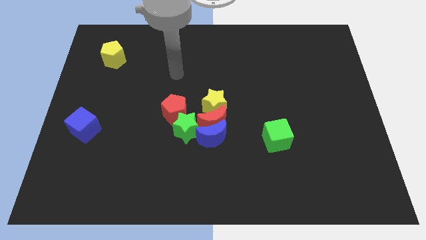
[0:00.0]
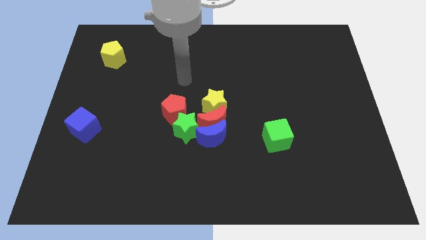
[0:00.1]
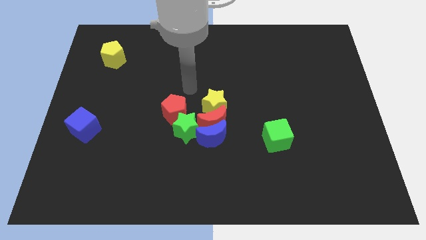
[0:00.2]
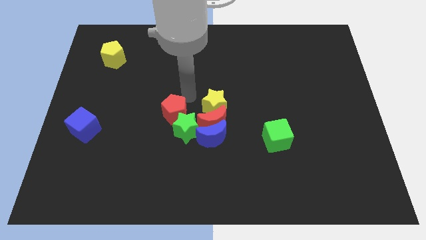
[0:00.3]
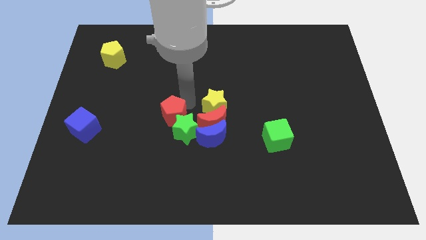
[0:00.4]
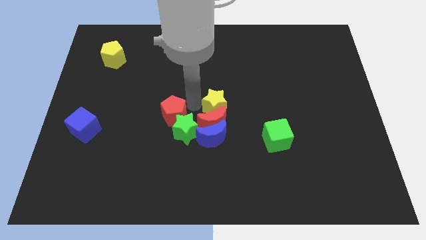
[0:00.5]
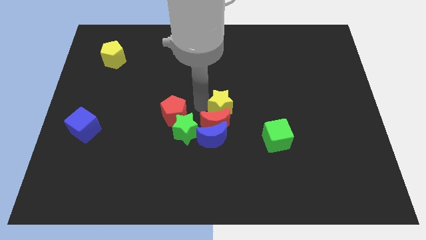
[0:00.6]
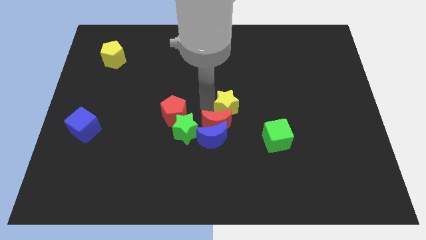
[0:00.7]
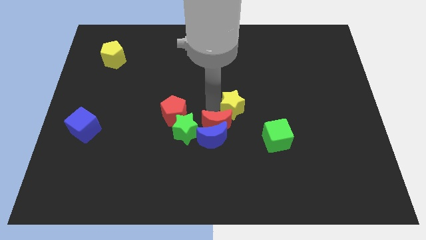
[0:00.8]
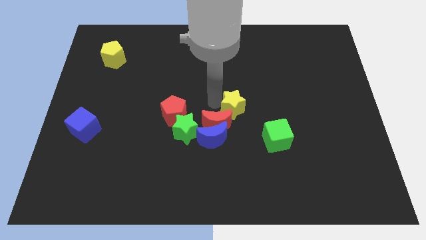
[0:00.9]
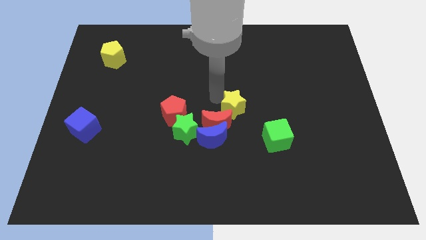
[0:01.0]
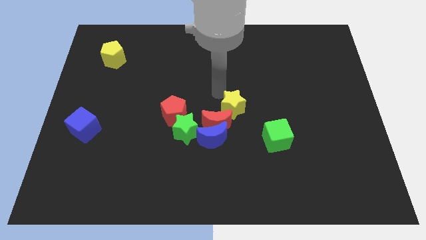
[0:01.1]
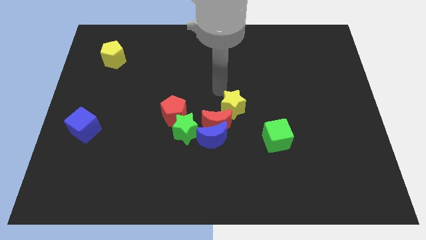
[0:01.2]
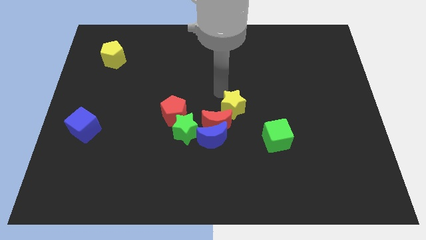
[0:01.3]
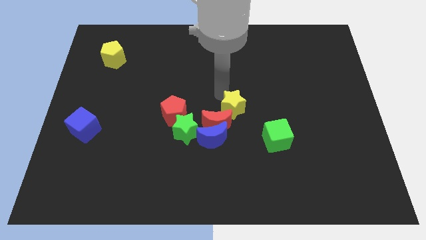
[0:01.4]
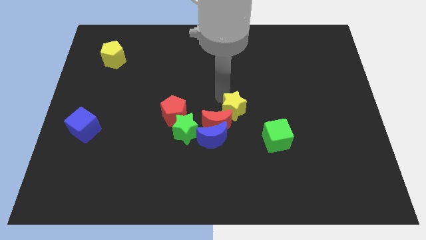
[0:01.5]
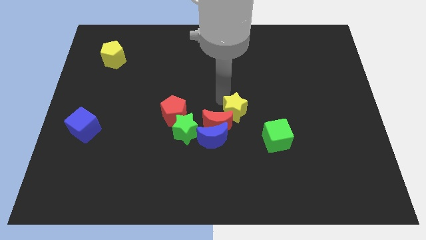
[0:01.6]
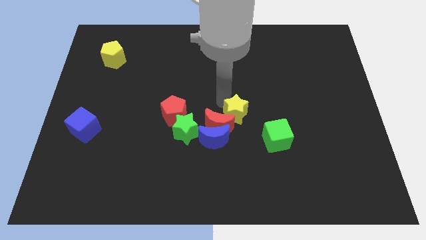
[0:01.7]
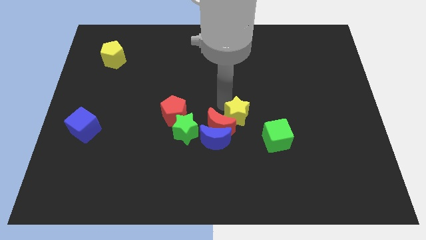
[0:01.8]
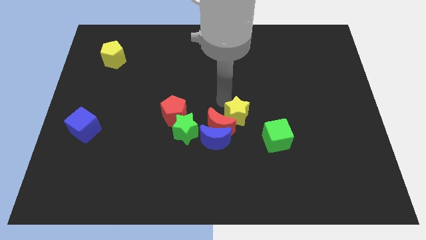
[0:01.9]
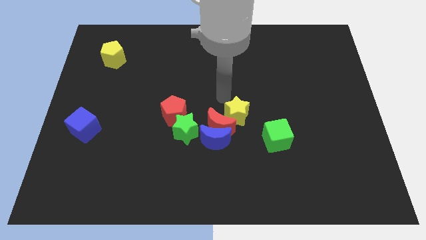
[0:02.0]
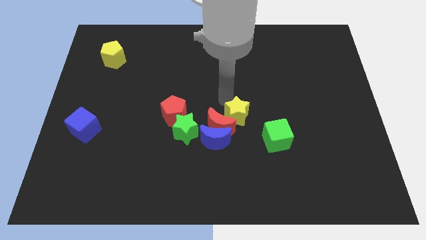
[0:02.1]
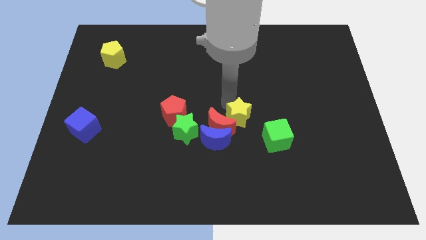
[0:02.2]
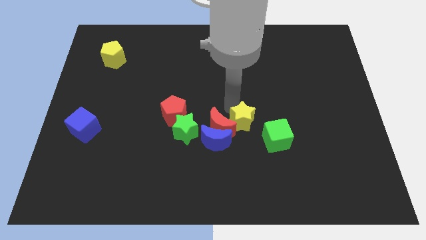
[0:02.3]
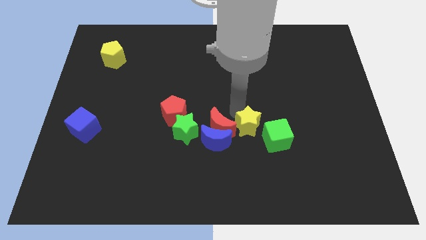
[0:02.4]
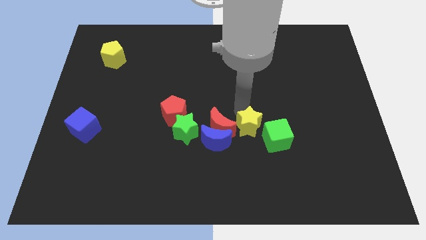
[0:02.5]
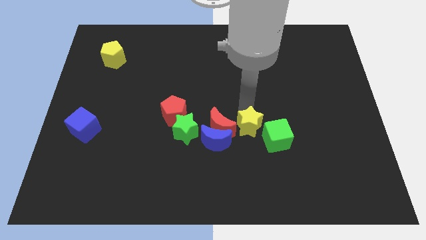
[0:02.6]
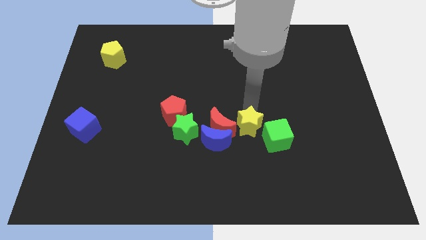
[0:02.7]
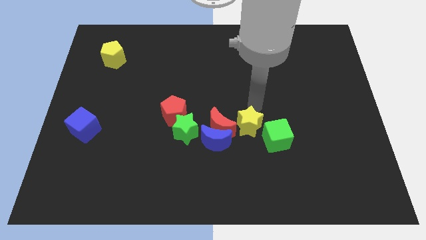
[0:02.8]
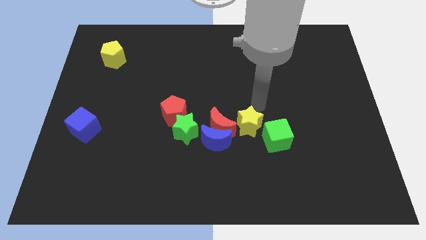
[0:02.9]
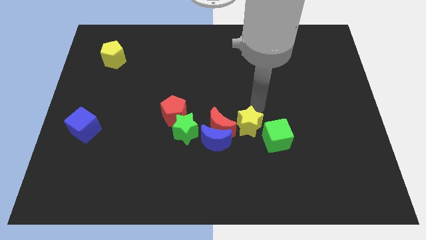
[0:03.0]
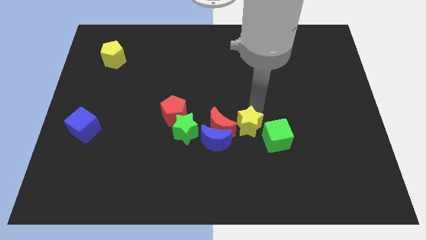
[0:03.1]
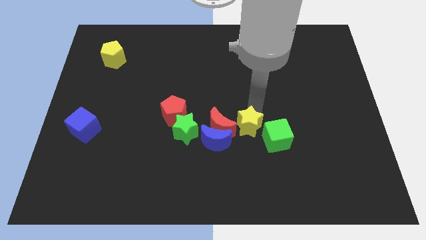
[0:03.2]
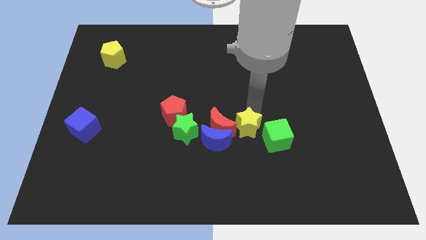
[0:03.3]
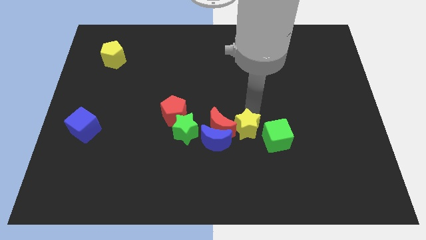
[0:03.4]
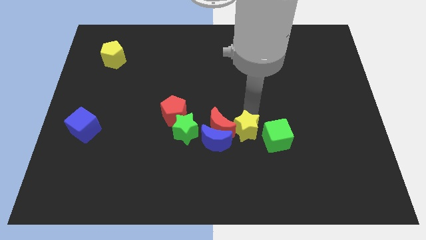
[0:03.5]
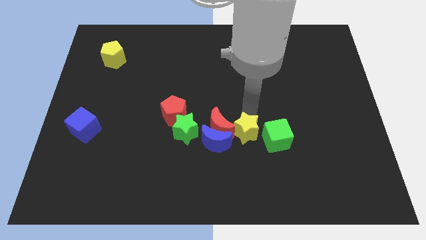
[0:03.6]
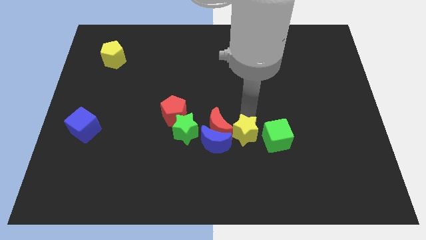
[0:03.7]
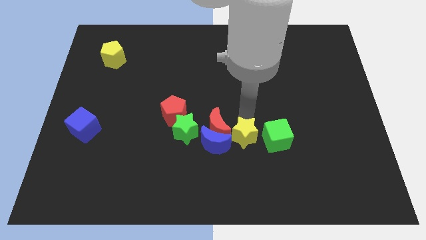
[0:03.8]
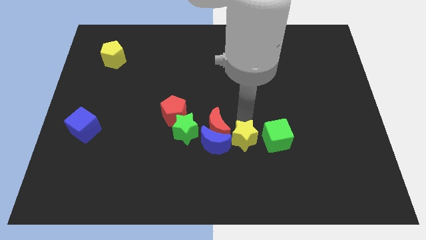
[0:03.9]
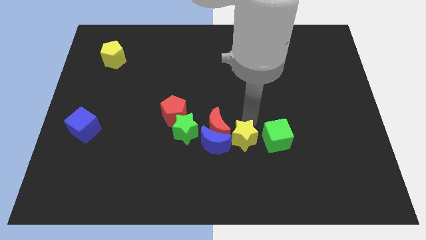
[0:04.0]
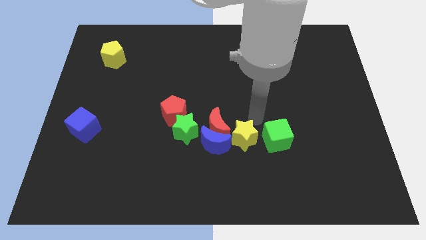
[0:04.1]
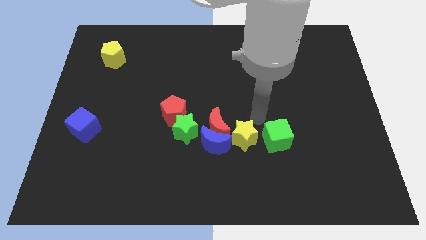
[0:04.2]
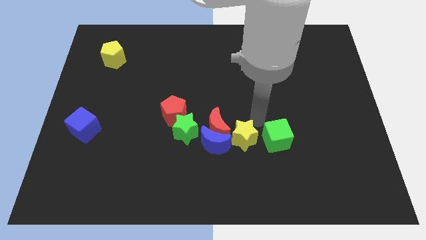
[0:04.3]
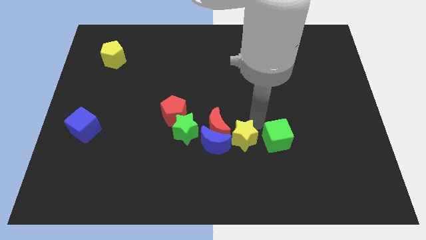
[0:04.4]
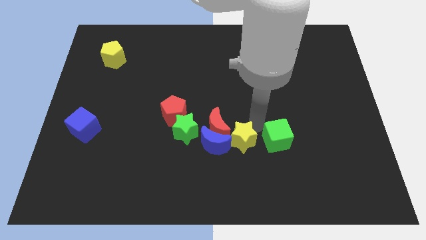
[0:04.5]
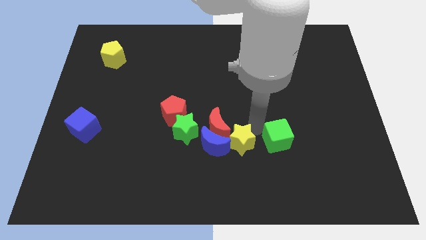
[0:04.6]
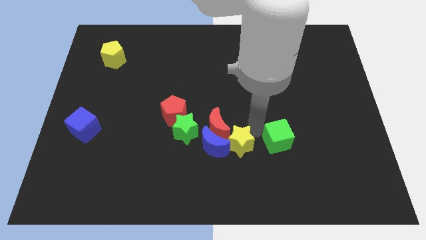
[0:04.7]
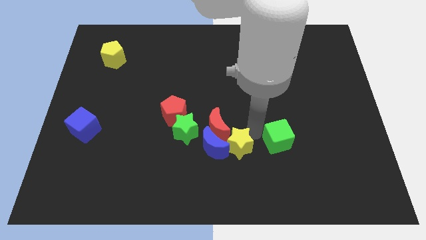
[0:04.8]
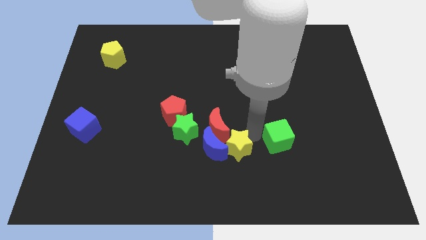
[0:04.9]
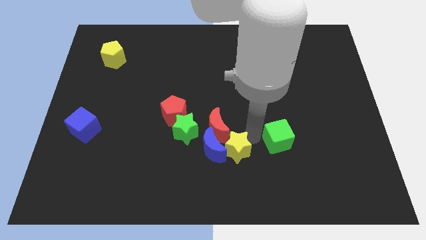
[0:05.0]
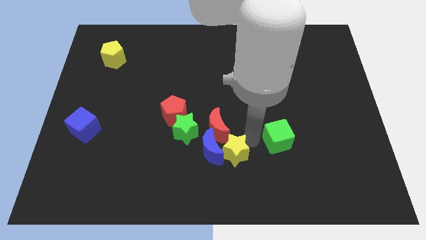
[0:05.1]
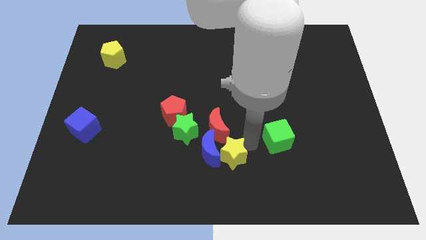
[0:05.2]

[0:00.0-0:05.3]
push the yellow star to the bottom side
